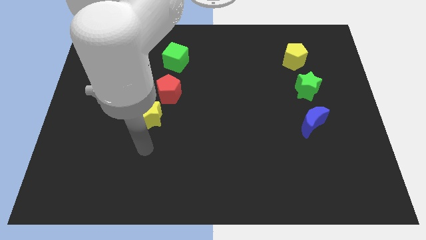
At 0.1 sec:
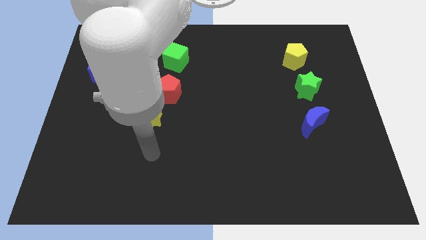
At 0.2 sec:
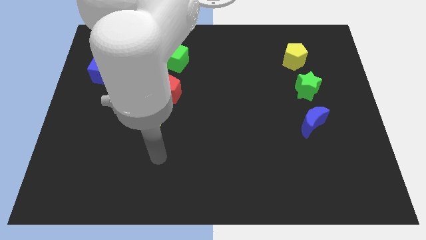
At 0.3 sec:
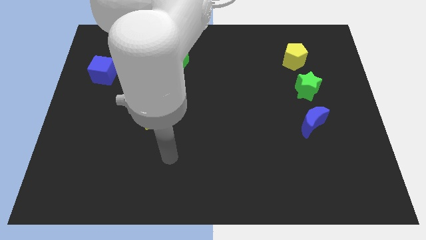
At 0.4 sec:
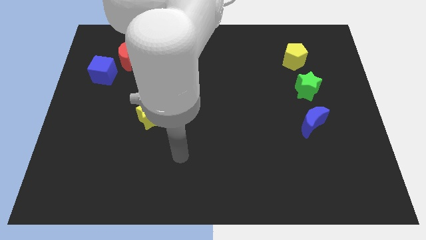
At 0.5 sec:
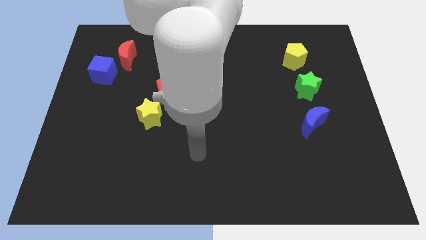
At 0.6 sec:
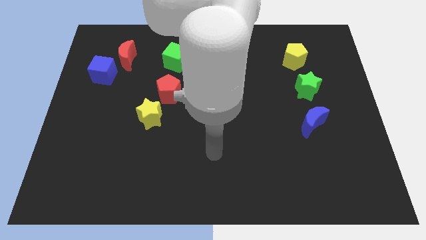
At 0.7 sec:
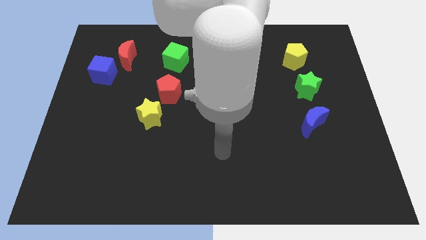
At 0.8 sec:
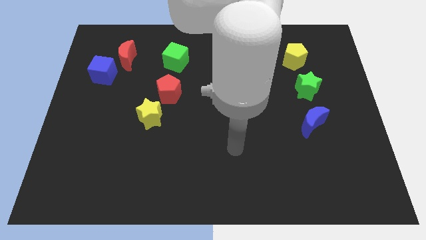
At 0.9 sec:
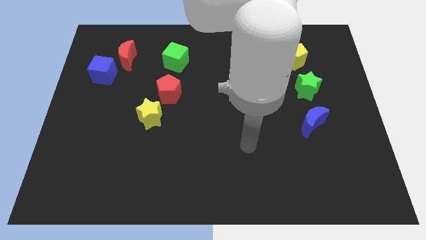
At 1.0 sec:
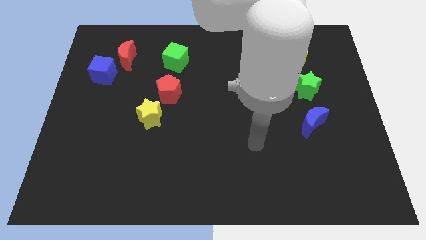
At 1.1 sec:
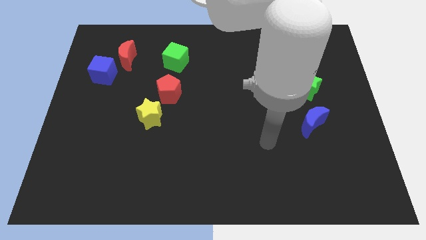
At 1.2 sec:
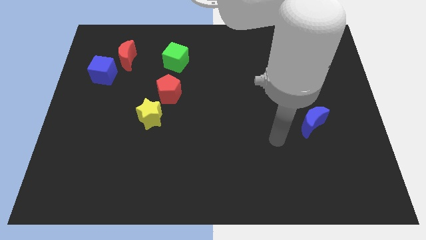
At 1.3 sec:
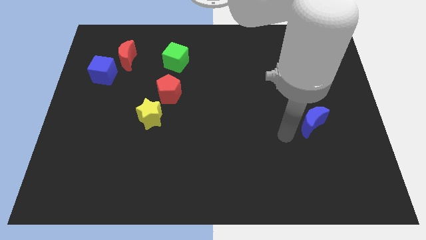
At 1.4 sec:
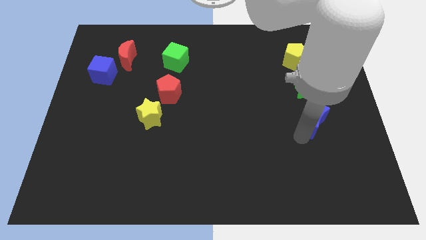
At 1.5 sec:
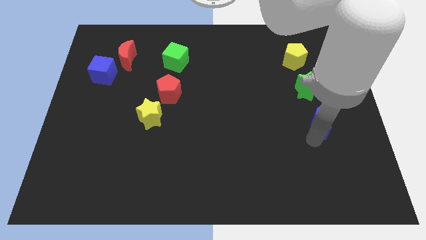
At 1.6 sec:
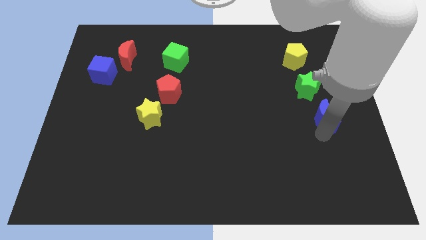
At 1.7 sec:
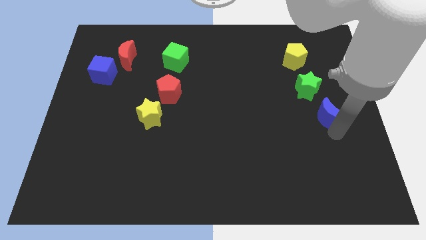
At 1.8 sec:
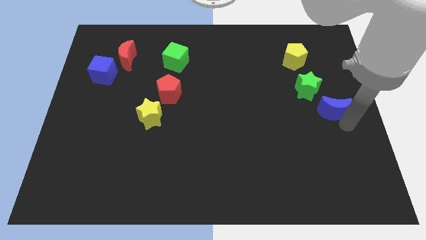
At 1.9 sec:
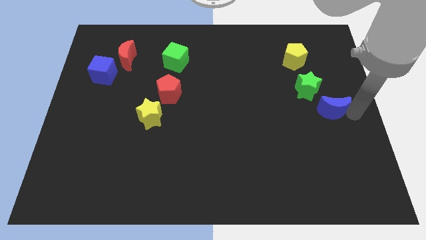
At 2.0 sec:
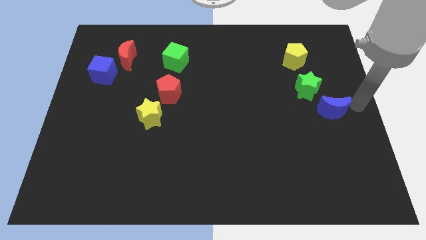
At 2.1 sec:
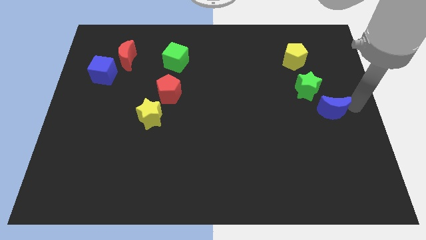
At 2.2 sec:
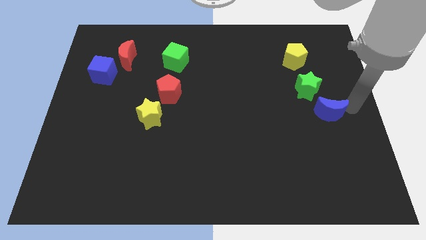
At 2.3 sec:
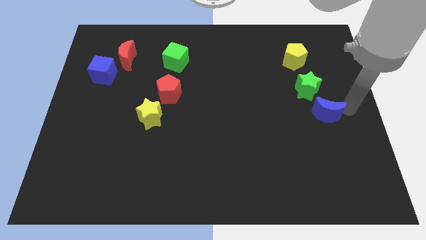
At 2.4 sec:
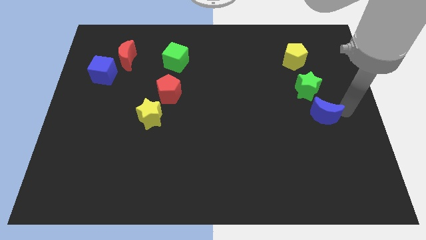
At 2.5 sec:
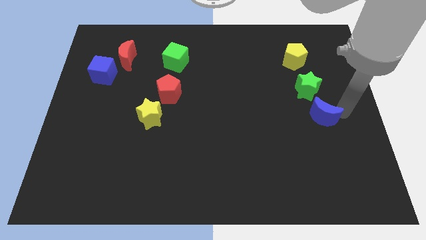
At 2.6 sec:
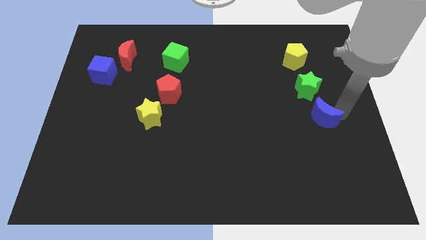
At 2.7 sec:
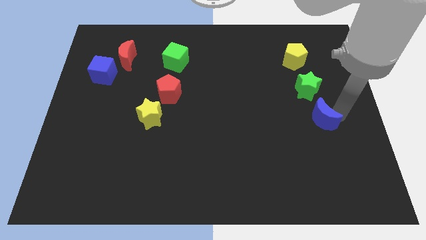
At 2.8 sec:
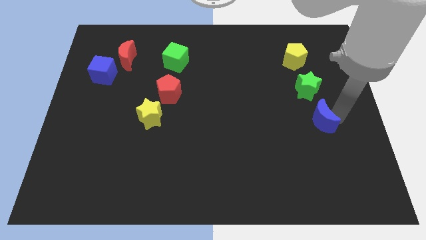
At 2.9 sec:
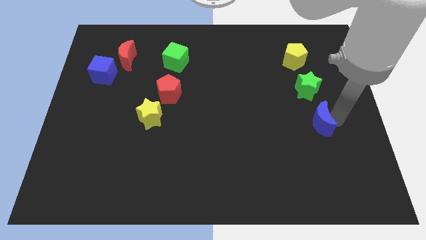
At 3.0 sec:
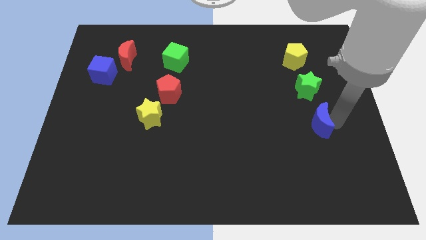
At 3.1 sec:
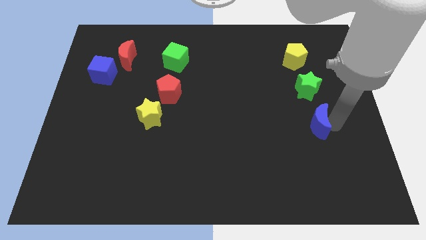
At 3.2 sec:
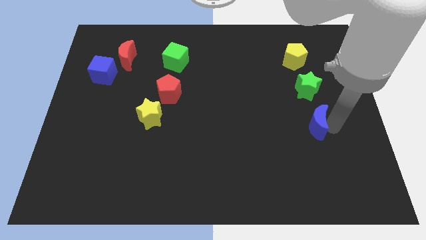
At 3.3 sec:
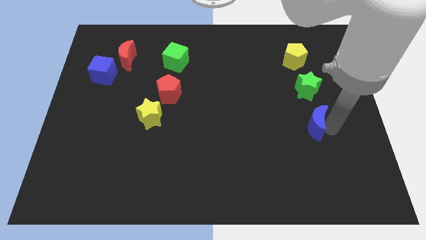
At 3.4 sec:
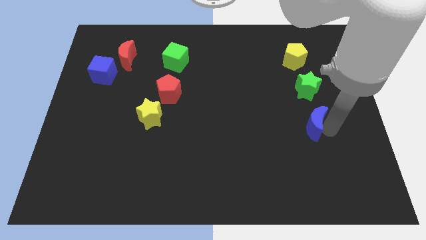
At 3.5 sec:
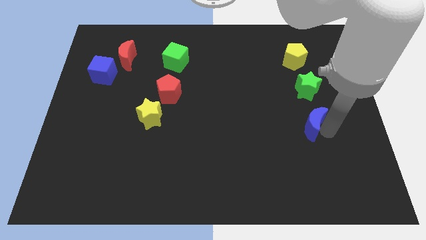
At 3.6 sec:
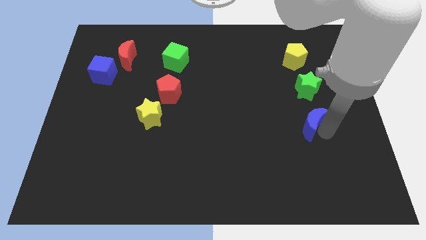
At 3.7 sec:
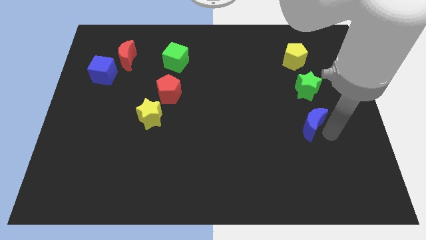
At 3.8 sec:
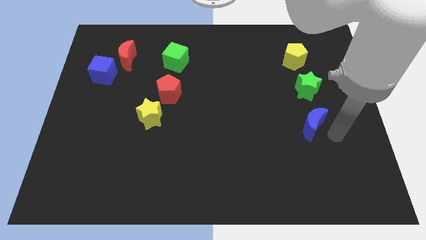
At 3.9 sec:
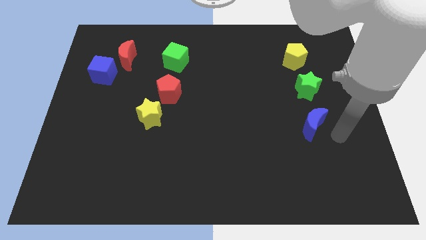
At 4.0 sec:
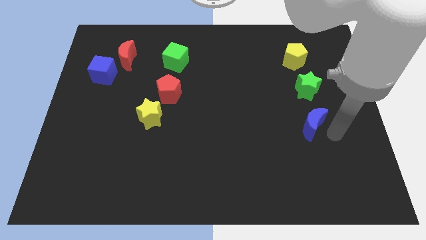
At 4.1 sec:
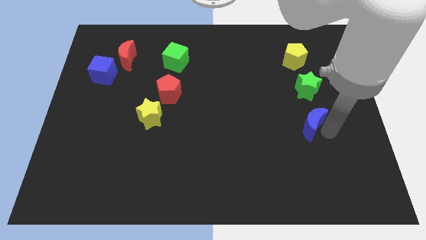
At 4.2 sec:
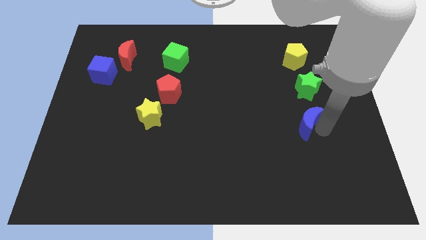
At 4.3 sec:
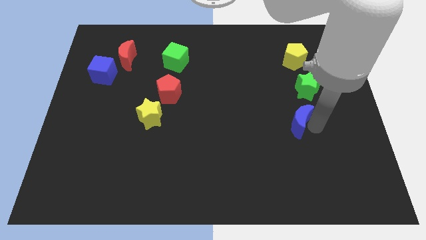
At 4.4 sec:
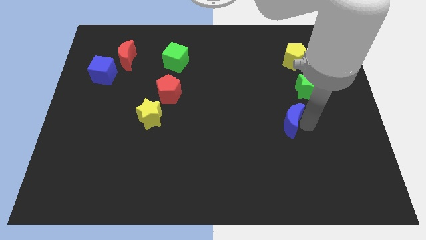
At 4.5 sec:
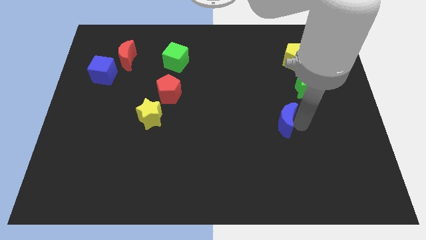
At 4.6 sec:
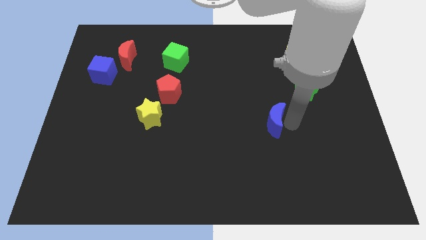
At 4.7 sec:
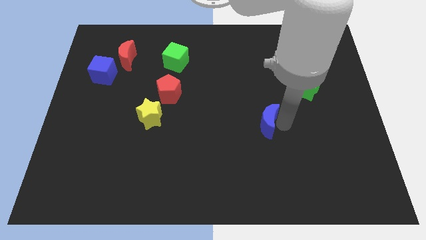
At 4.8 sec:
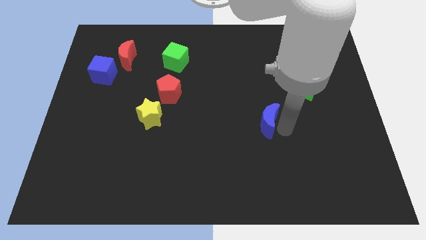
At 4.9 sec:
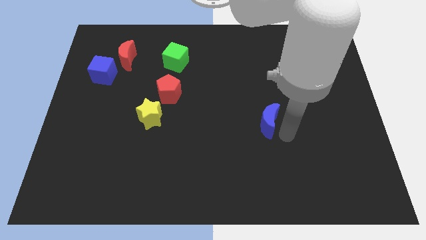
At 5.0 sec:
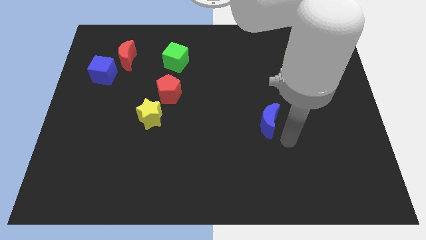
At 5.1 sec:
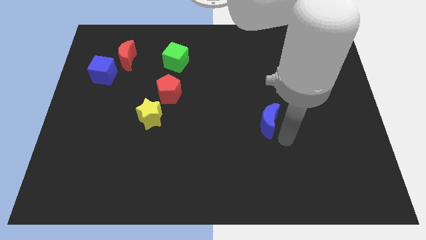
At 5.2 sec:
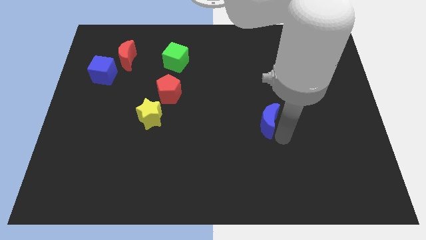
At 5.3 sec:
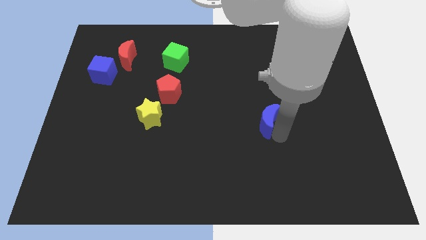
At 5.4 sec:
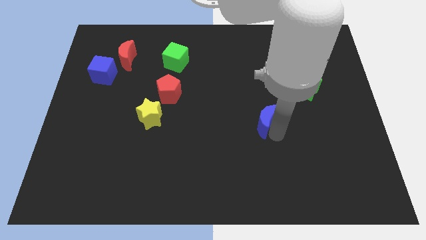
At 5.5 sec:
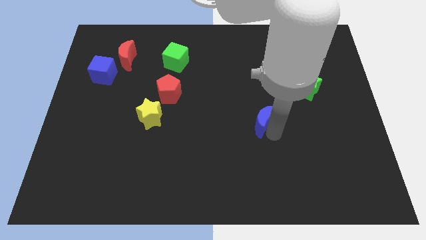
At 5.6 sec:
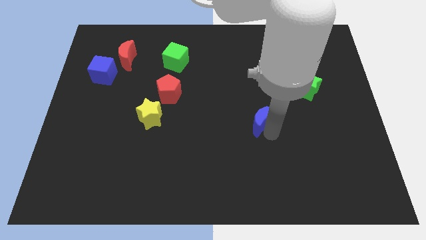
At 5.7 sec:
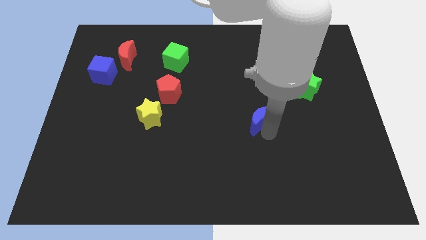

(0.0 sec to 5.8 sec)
push the blue moon to the middle of the board

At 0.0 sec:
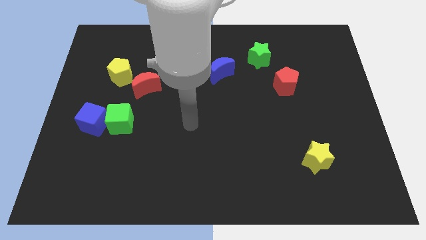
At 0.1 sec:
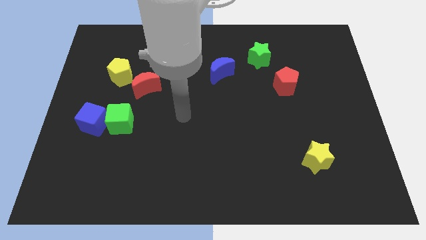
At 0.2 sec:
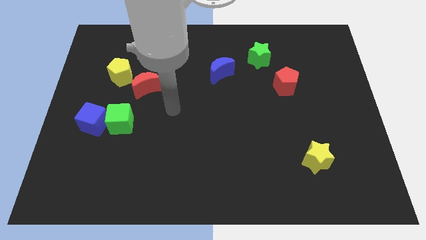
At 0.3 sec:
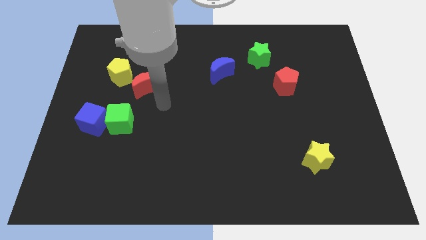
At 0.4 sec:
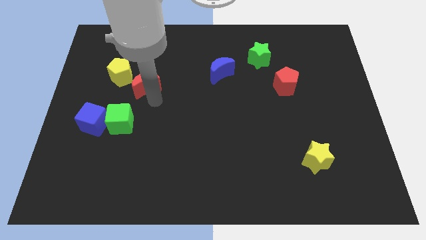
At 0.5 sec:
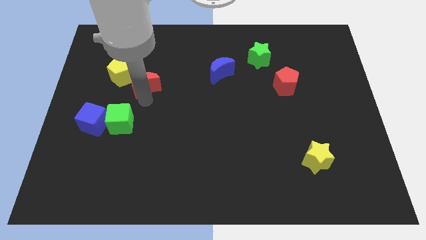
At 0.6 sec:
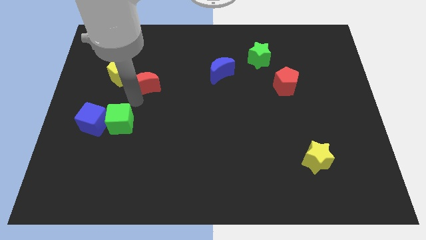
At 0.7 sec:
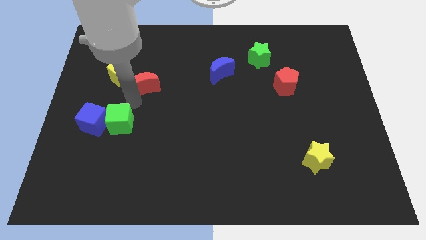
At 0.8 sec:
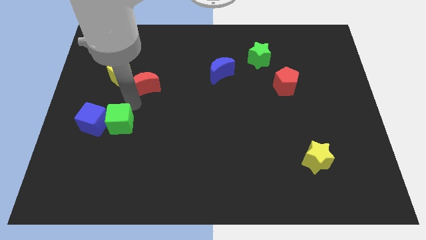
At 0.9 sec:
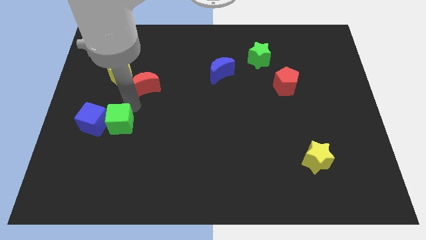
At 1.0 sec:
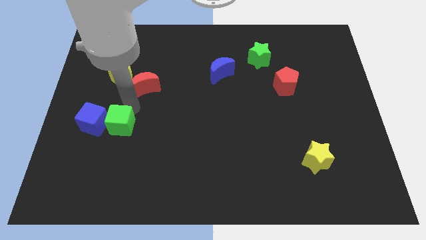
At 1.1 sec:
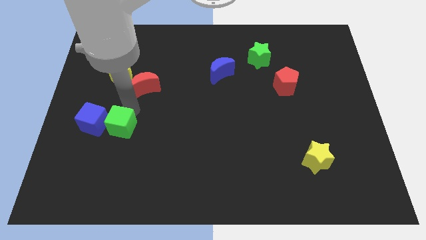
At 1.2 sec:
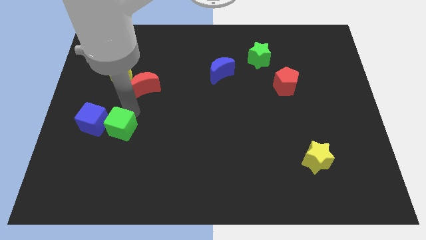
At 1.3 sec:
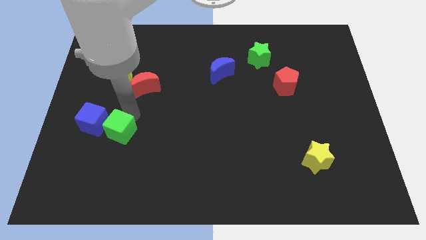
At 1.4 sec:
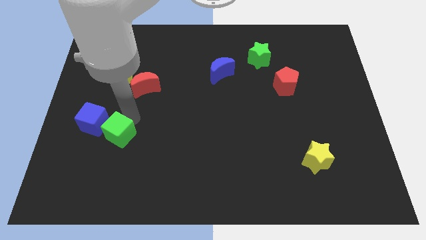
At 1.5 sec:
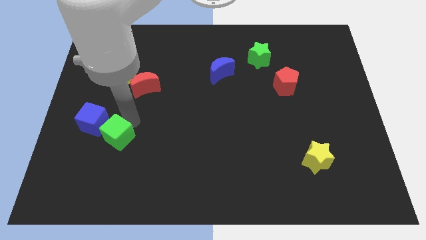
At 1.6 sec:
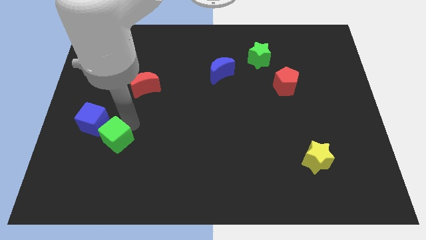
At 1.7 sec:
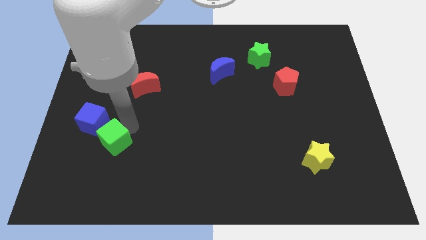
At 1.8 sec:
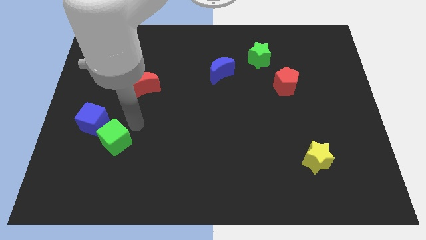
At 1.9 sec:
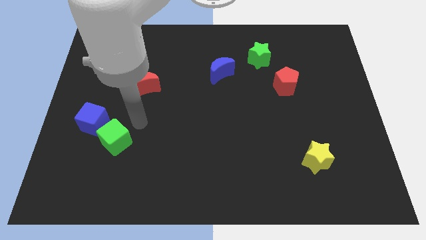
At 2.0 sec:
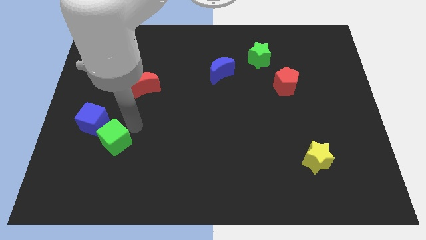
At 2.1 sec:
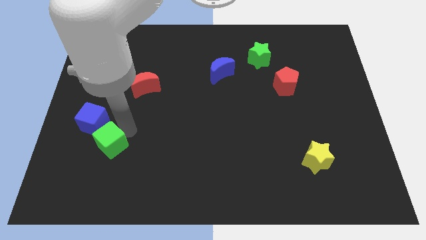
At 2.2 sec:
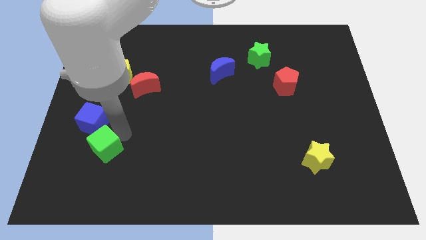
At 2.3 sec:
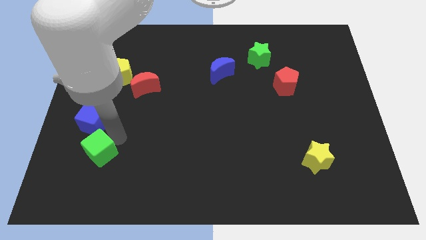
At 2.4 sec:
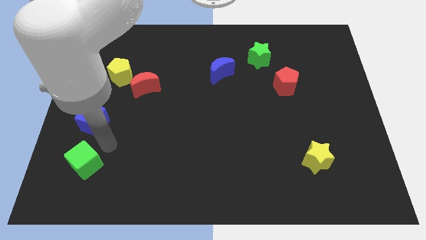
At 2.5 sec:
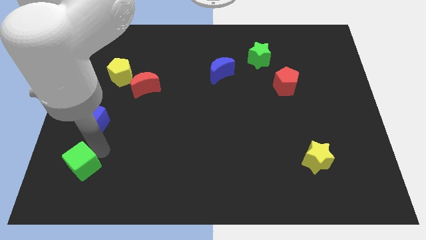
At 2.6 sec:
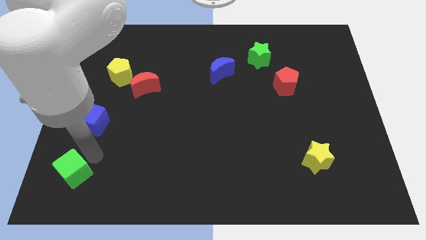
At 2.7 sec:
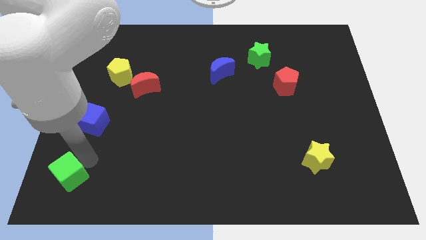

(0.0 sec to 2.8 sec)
slide the green cube to the bottom left
